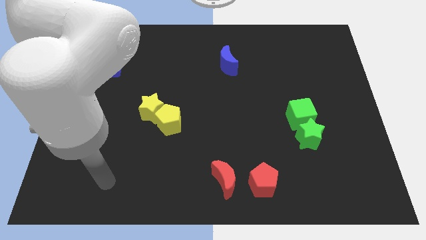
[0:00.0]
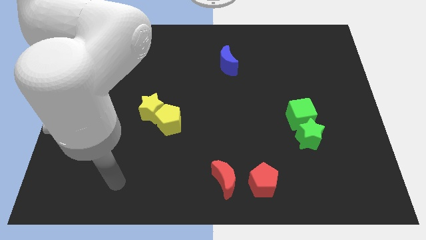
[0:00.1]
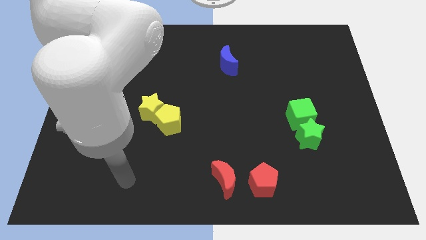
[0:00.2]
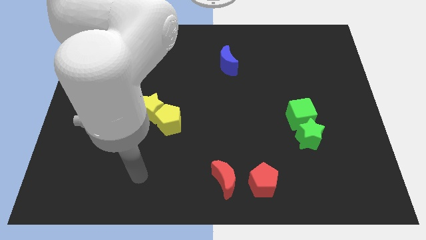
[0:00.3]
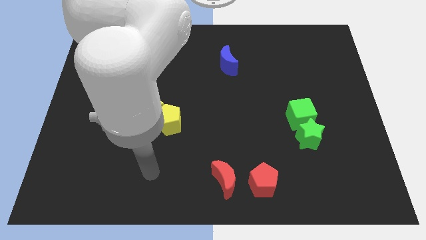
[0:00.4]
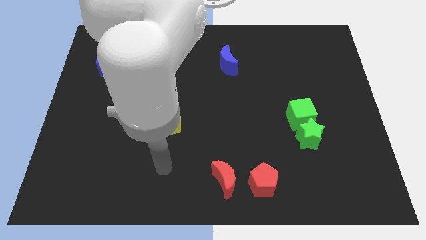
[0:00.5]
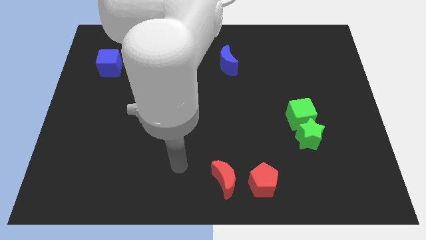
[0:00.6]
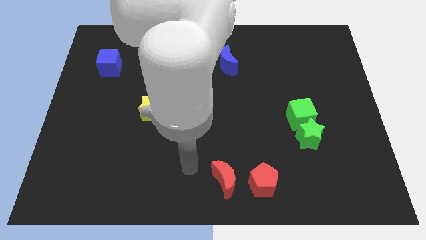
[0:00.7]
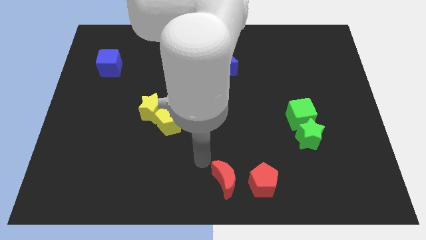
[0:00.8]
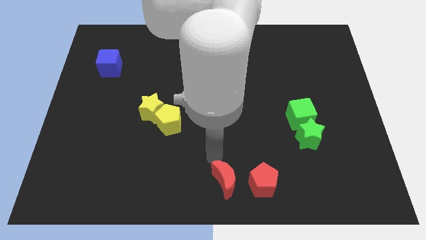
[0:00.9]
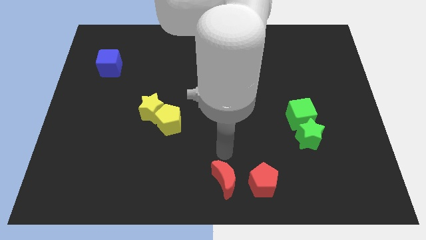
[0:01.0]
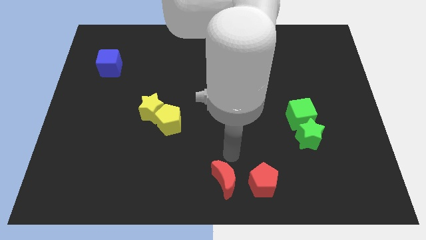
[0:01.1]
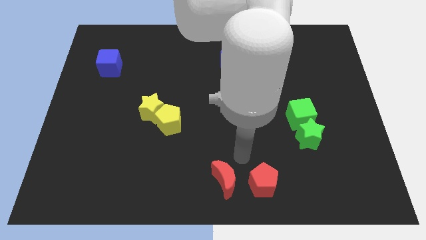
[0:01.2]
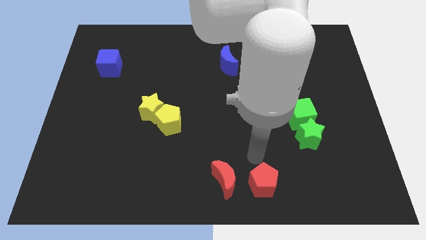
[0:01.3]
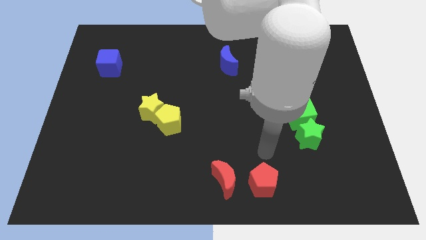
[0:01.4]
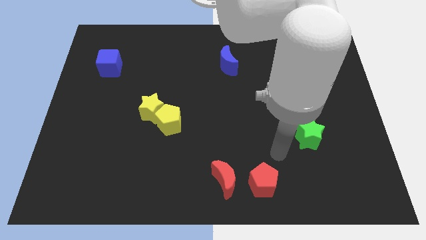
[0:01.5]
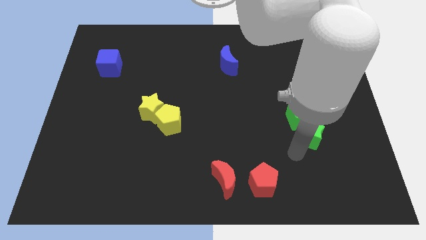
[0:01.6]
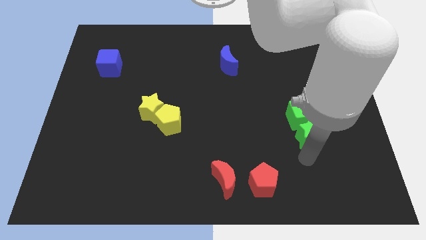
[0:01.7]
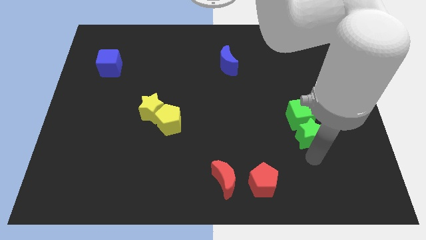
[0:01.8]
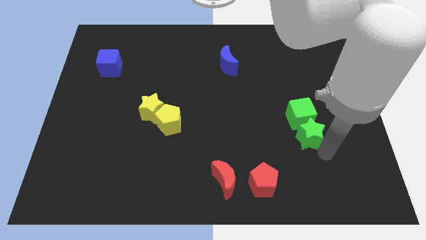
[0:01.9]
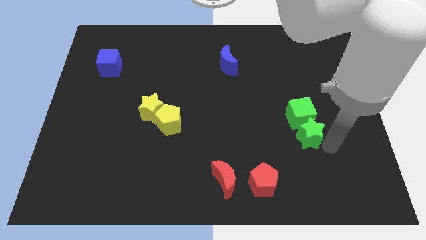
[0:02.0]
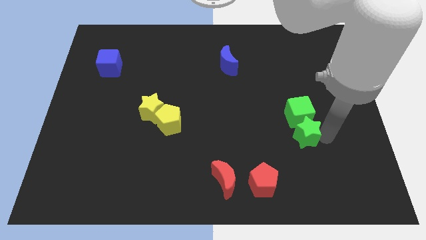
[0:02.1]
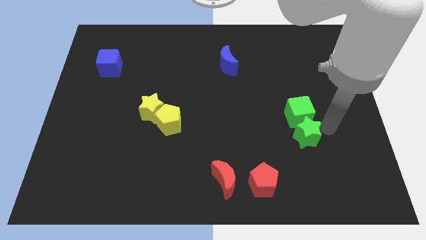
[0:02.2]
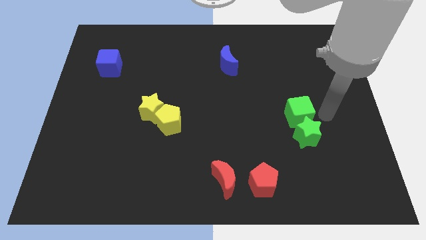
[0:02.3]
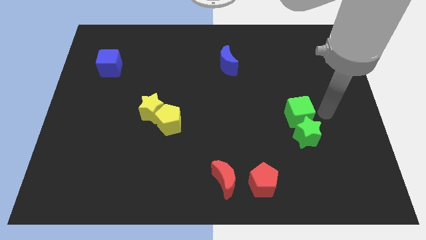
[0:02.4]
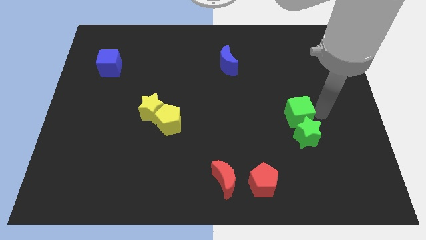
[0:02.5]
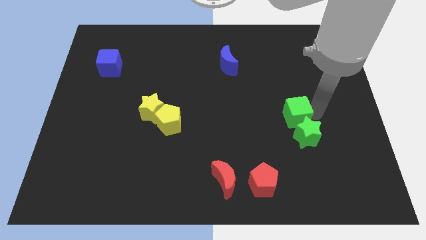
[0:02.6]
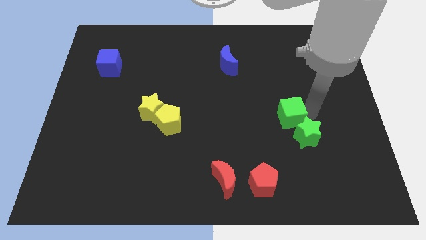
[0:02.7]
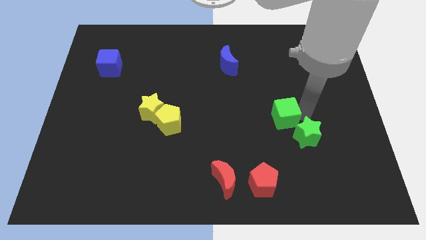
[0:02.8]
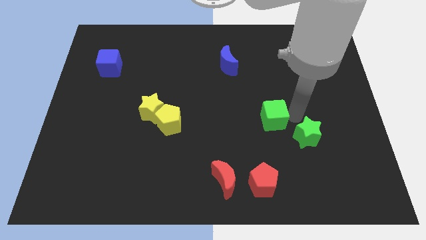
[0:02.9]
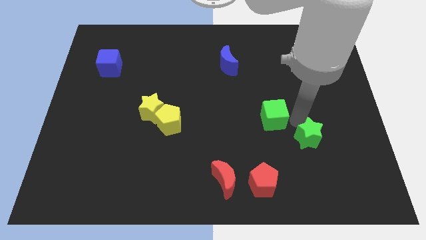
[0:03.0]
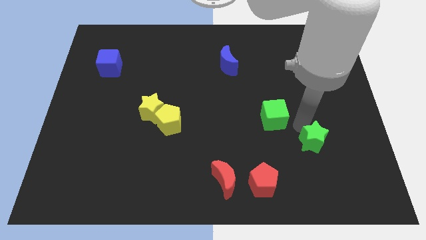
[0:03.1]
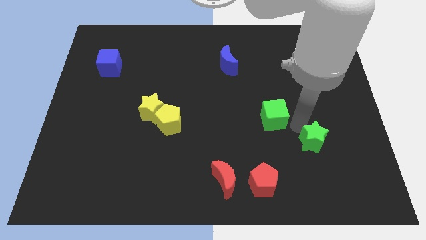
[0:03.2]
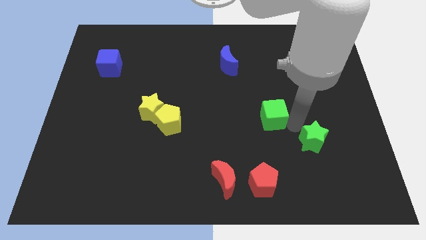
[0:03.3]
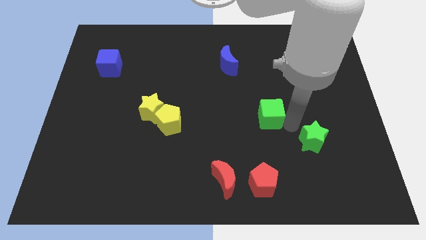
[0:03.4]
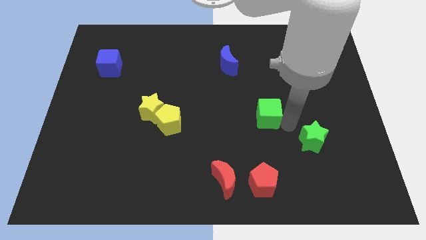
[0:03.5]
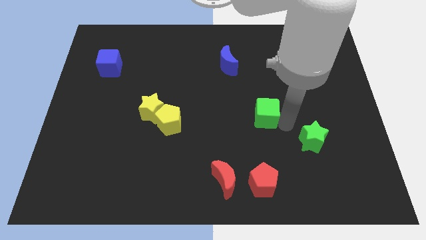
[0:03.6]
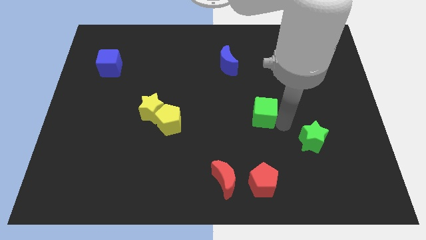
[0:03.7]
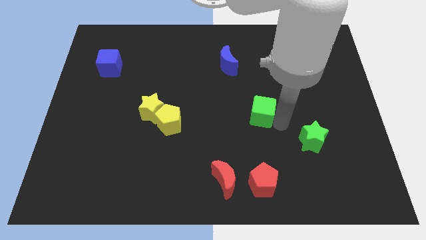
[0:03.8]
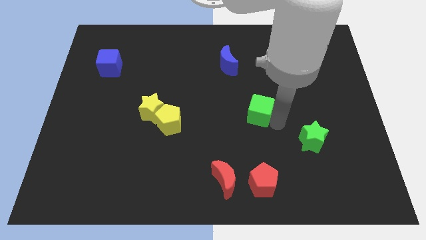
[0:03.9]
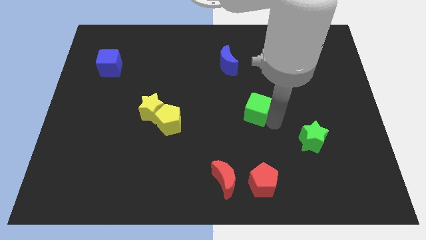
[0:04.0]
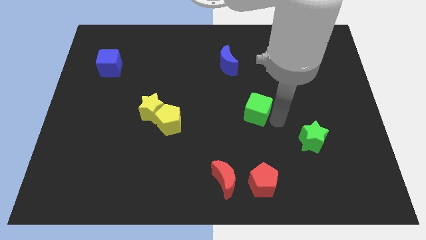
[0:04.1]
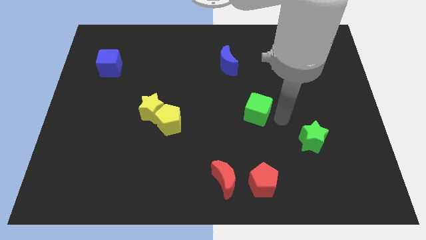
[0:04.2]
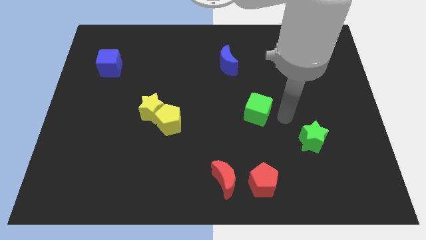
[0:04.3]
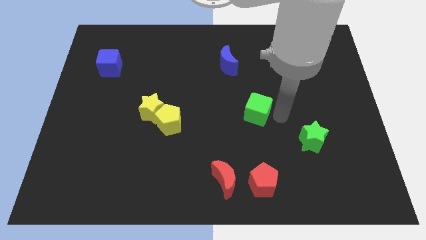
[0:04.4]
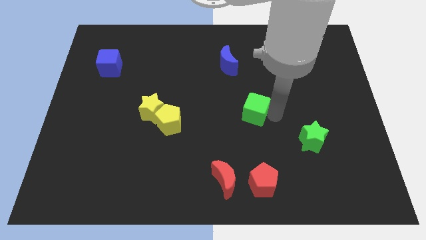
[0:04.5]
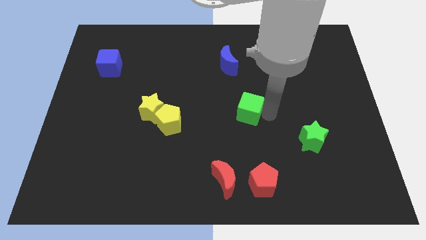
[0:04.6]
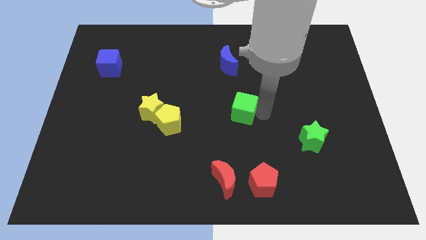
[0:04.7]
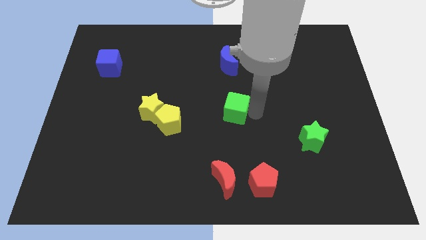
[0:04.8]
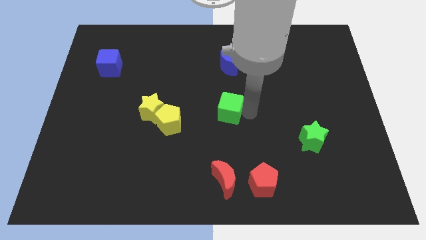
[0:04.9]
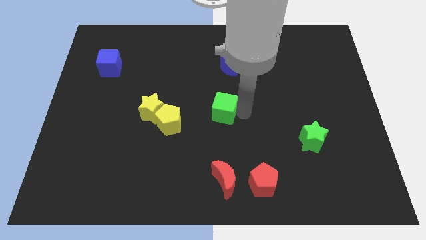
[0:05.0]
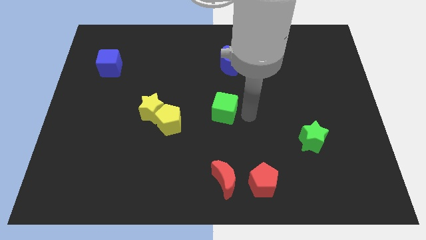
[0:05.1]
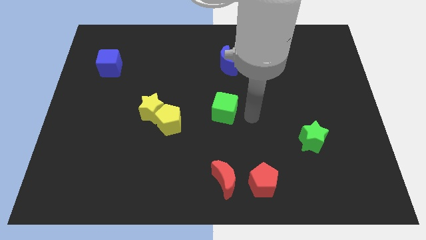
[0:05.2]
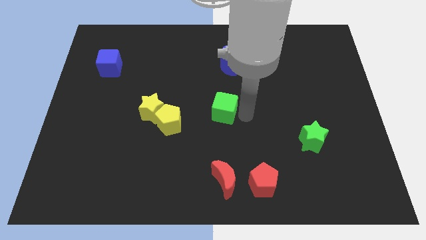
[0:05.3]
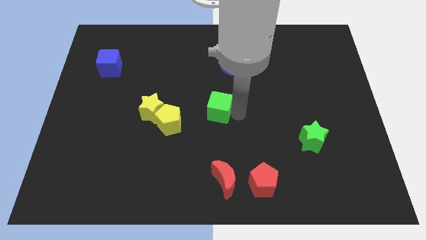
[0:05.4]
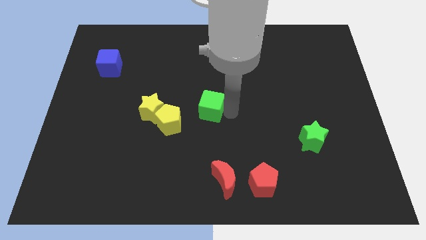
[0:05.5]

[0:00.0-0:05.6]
push the green cube to the top right of the yellow pentagon

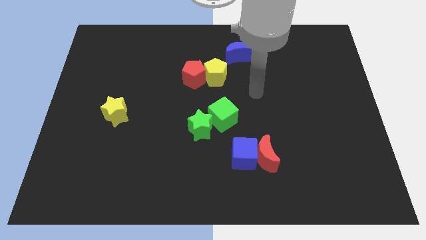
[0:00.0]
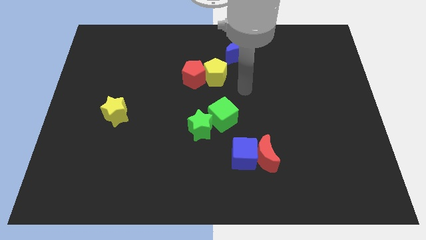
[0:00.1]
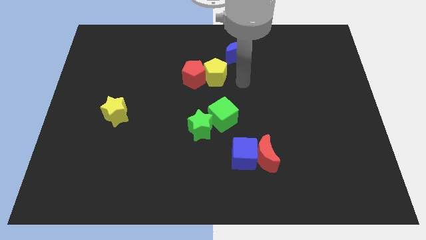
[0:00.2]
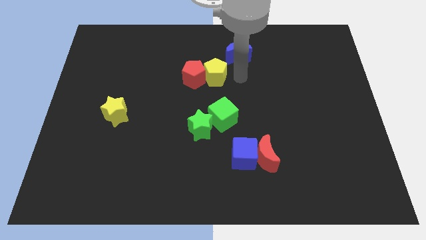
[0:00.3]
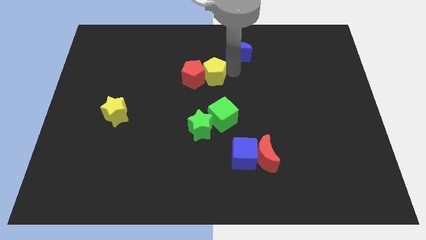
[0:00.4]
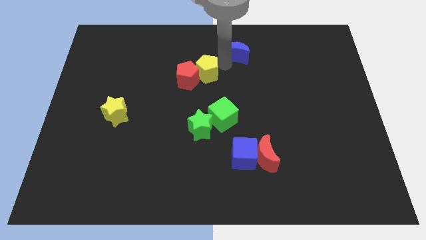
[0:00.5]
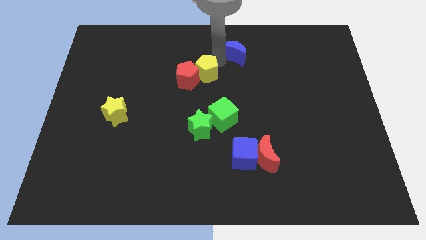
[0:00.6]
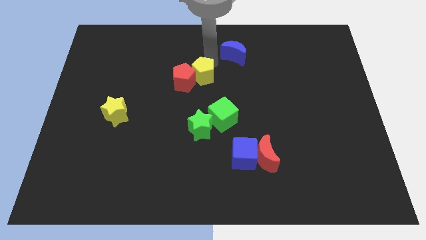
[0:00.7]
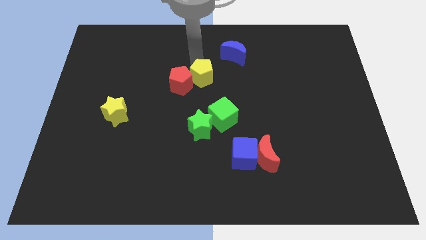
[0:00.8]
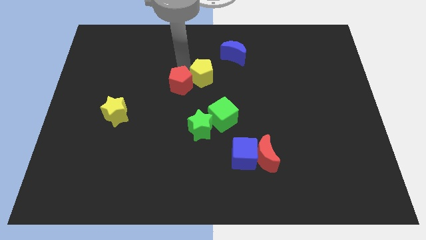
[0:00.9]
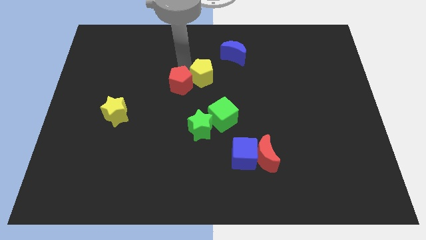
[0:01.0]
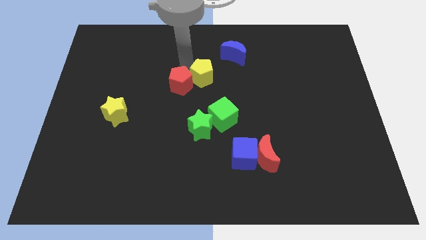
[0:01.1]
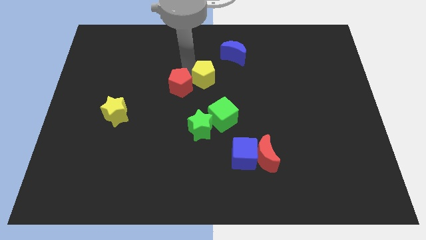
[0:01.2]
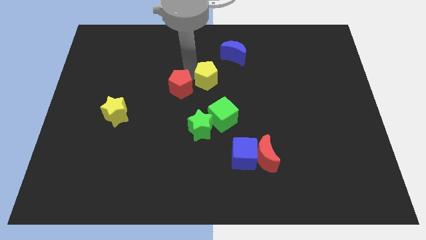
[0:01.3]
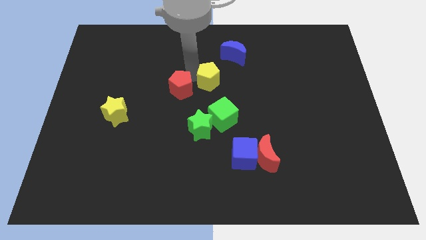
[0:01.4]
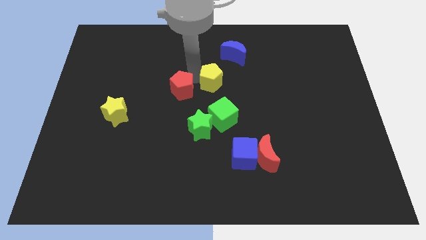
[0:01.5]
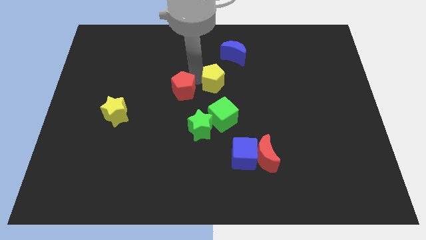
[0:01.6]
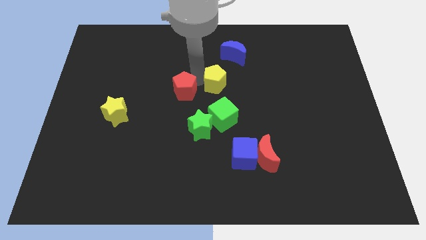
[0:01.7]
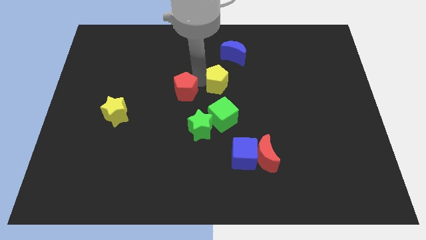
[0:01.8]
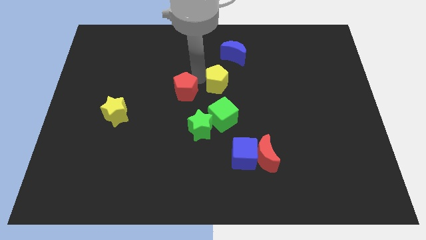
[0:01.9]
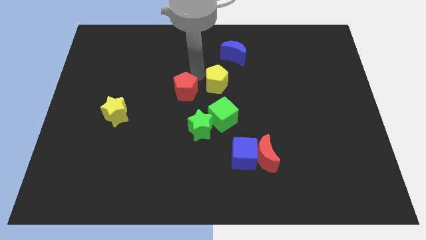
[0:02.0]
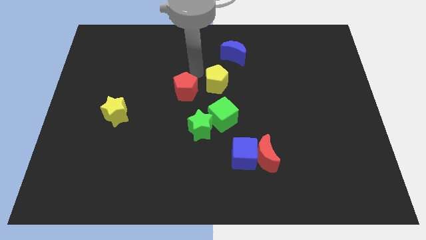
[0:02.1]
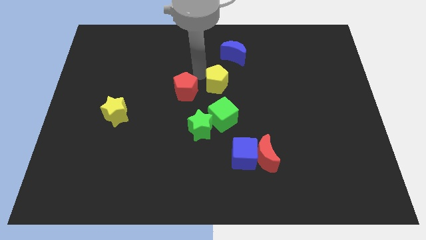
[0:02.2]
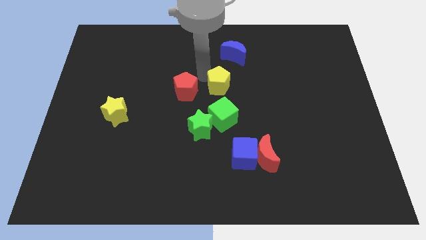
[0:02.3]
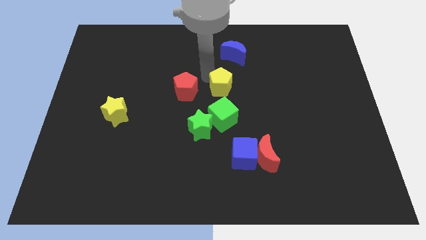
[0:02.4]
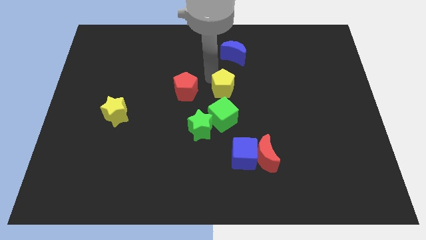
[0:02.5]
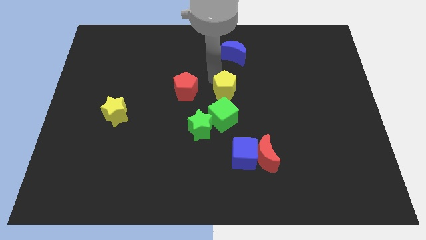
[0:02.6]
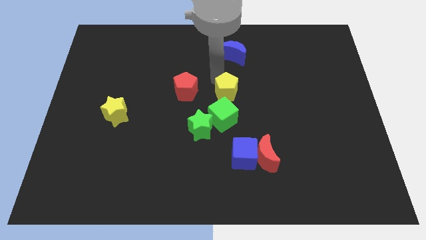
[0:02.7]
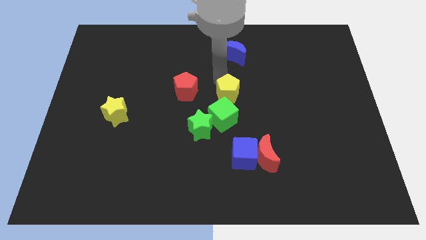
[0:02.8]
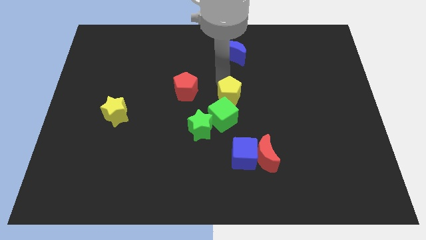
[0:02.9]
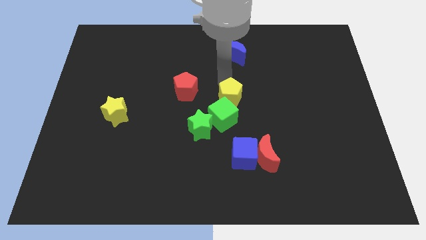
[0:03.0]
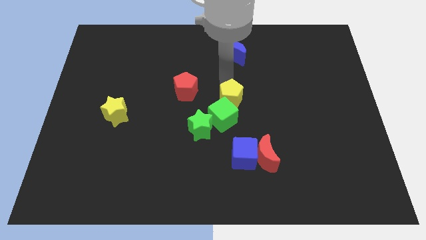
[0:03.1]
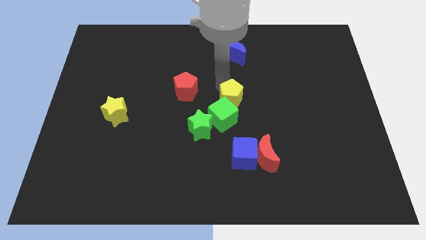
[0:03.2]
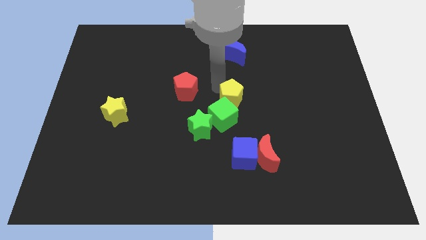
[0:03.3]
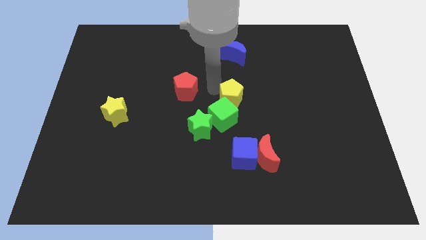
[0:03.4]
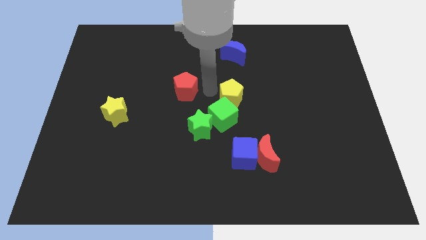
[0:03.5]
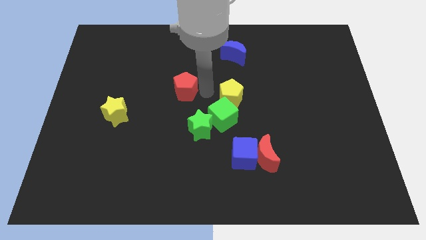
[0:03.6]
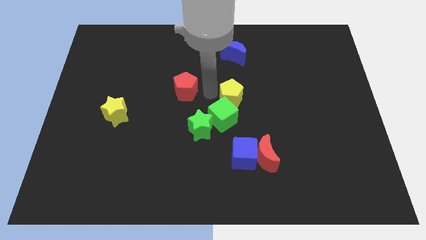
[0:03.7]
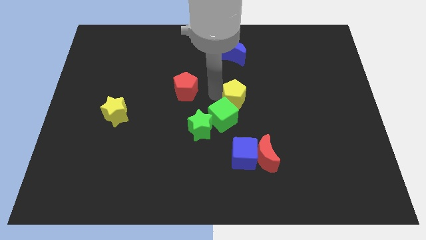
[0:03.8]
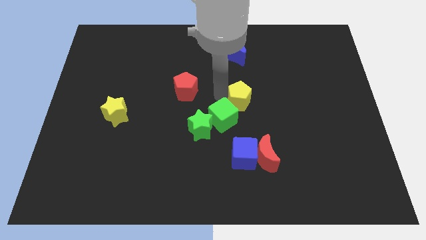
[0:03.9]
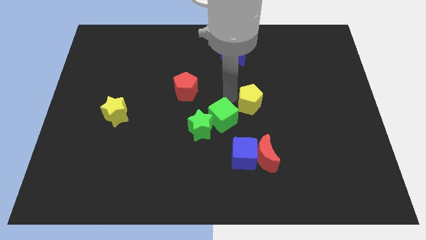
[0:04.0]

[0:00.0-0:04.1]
put the yellow pentagon right of the green cube
